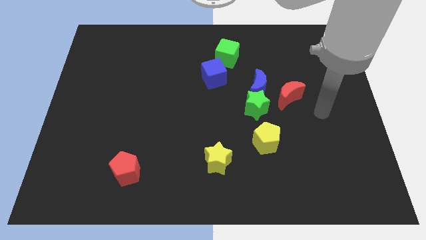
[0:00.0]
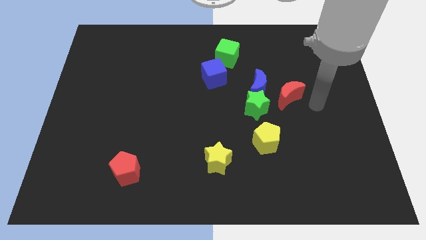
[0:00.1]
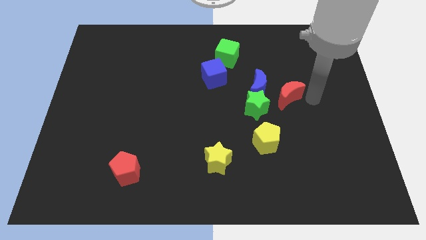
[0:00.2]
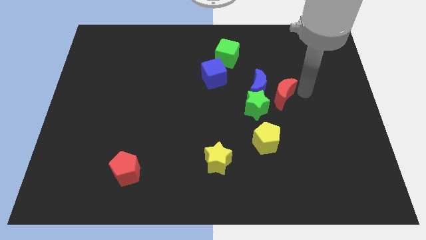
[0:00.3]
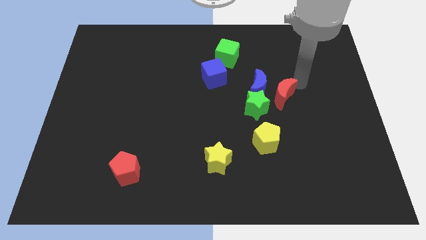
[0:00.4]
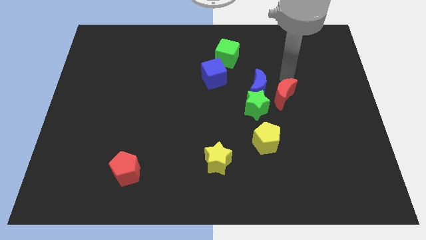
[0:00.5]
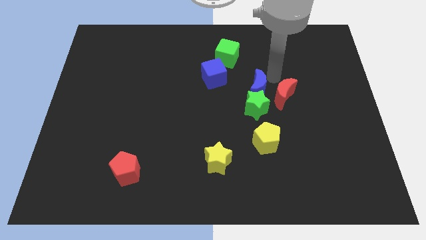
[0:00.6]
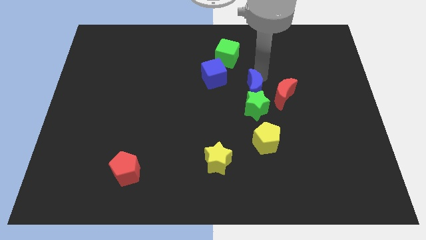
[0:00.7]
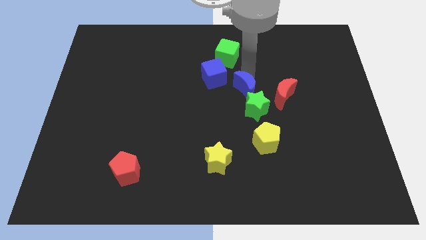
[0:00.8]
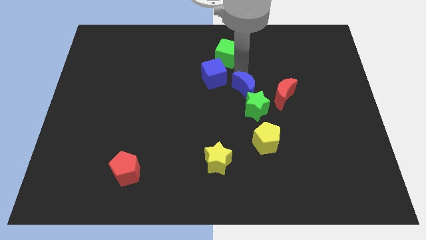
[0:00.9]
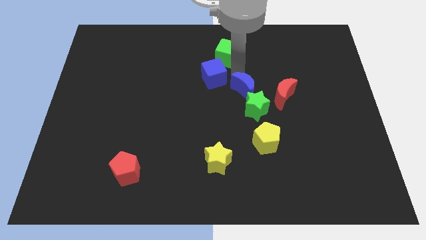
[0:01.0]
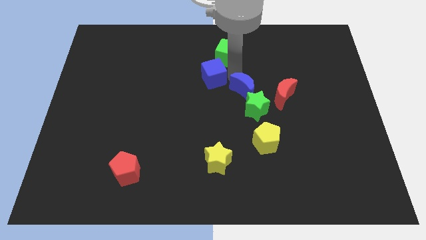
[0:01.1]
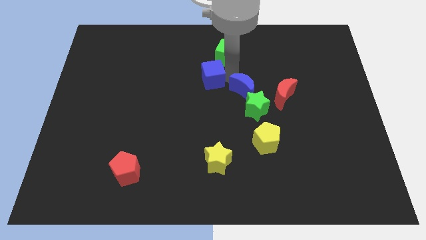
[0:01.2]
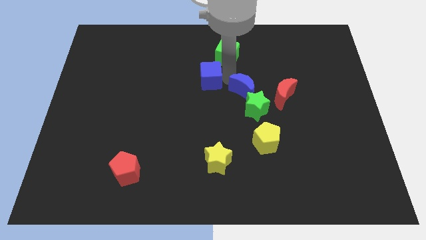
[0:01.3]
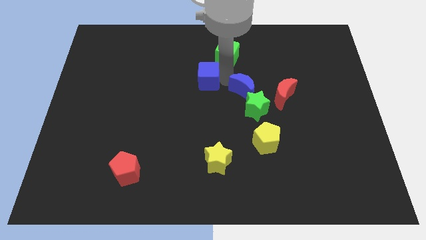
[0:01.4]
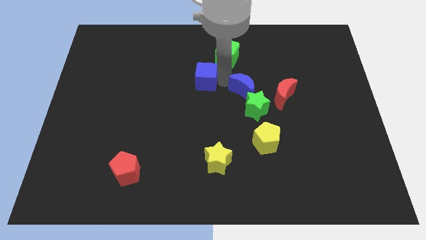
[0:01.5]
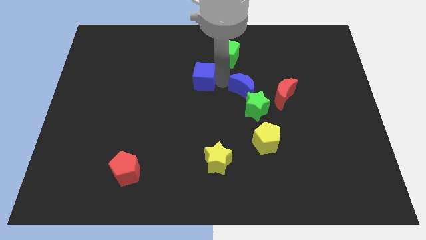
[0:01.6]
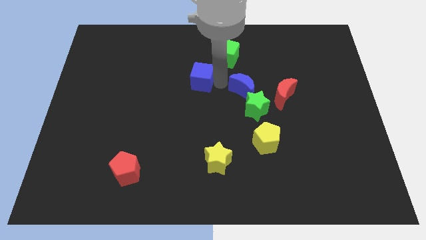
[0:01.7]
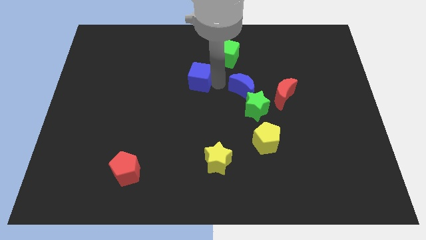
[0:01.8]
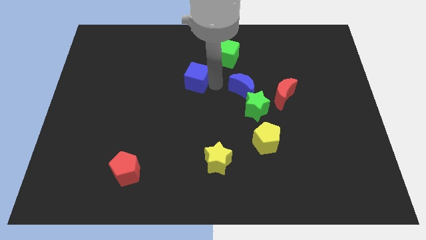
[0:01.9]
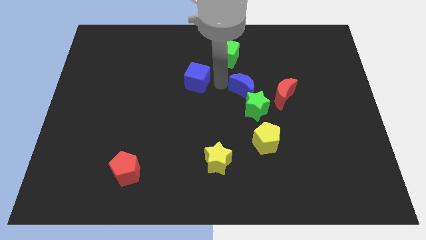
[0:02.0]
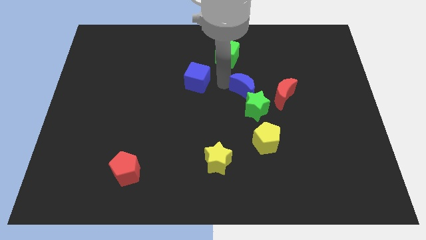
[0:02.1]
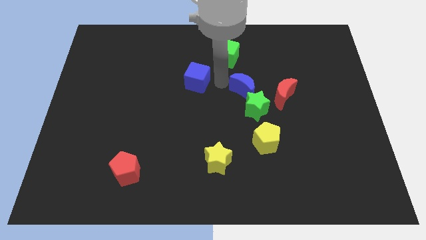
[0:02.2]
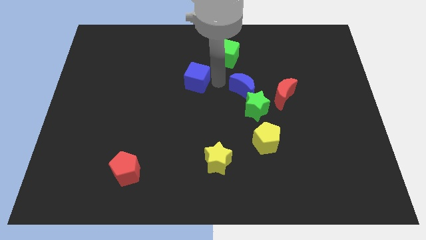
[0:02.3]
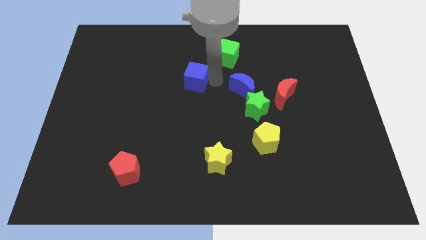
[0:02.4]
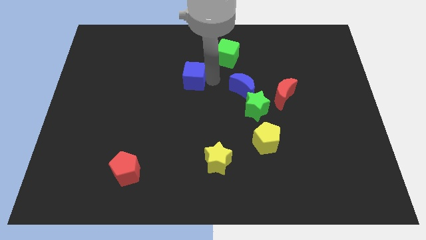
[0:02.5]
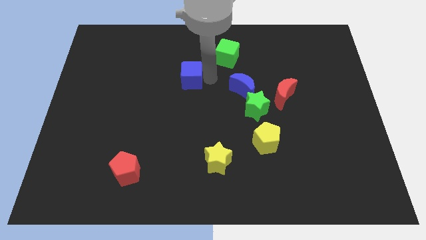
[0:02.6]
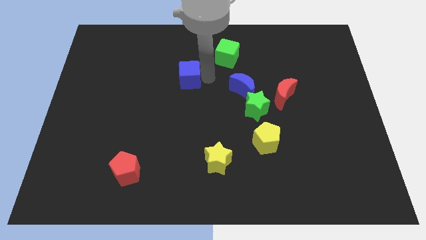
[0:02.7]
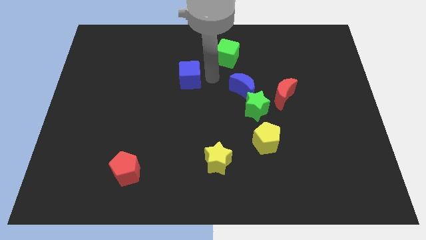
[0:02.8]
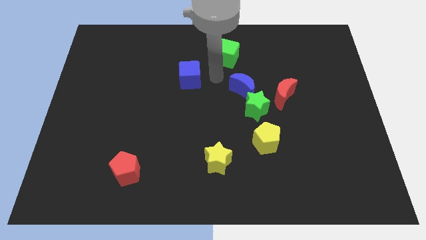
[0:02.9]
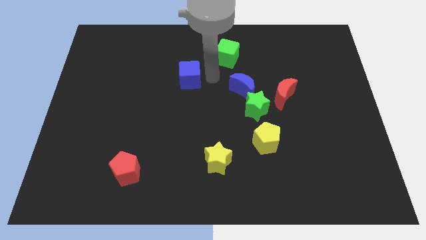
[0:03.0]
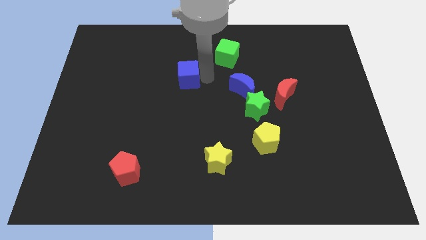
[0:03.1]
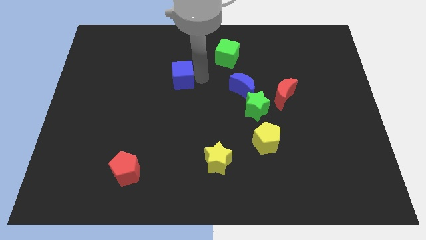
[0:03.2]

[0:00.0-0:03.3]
slightly push the blue cube to the left

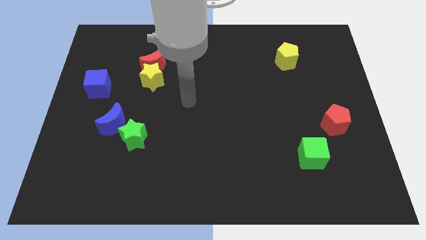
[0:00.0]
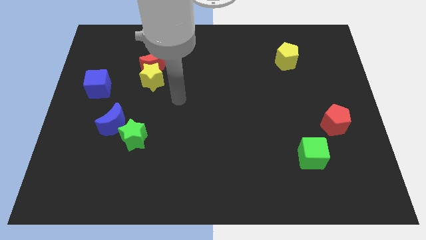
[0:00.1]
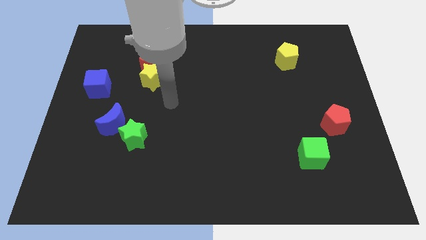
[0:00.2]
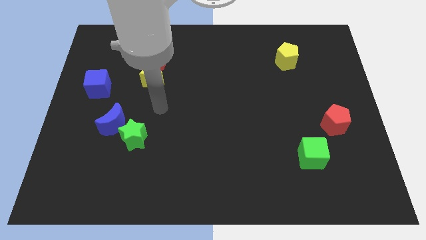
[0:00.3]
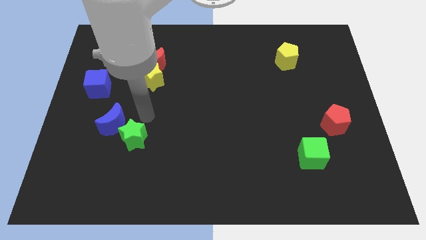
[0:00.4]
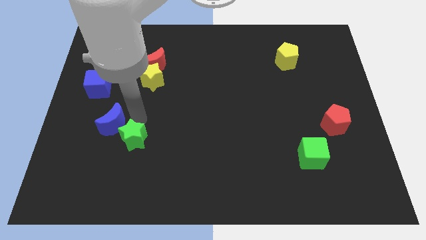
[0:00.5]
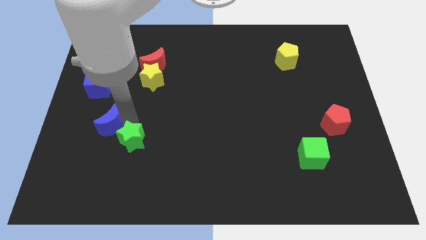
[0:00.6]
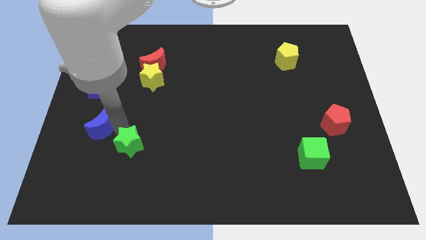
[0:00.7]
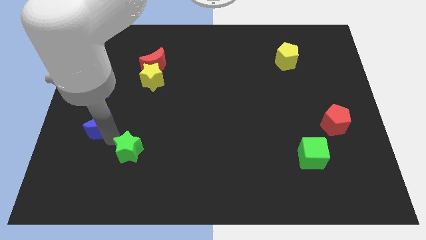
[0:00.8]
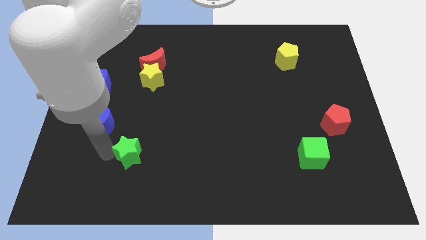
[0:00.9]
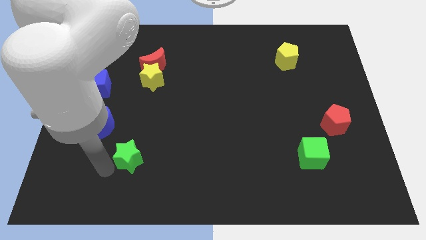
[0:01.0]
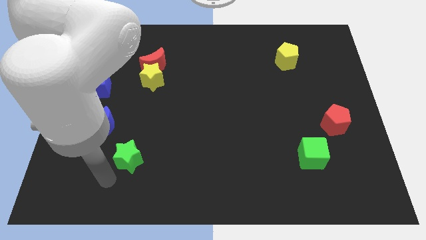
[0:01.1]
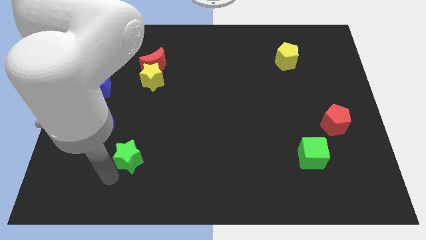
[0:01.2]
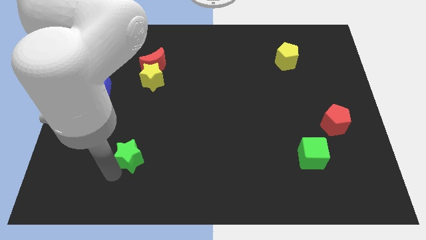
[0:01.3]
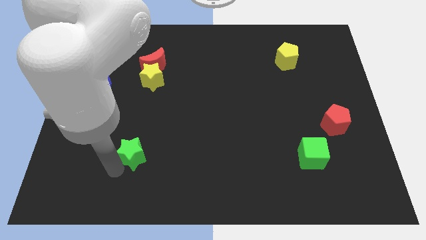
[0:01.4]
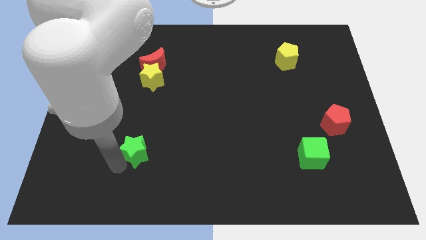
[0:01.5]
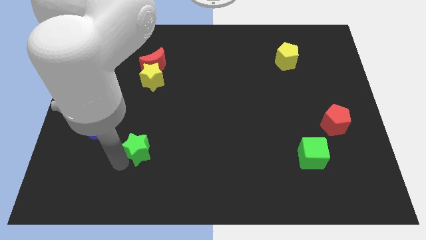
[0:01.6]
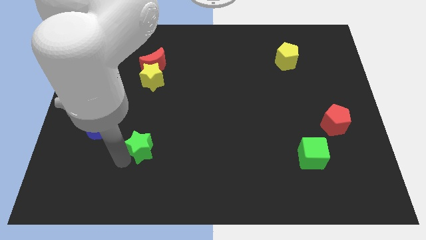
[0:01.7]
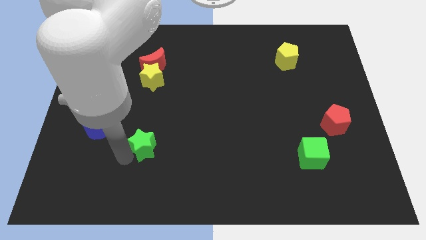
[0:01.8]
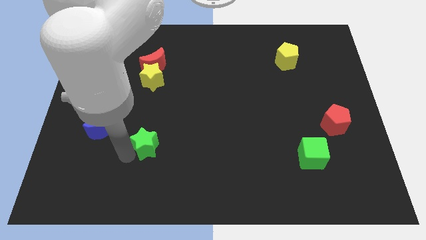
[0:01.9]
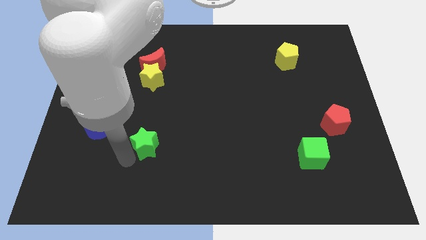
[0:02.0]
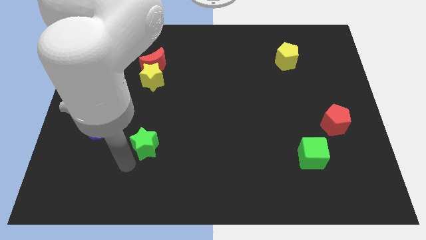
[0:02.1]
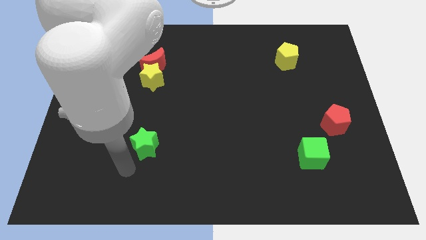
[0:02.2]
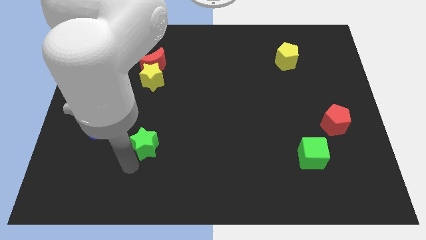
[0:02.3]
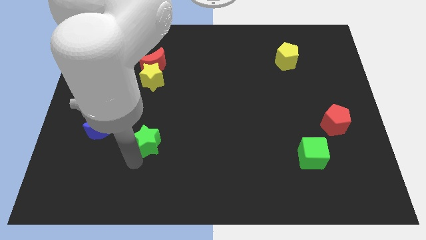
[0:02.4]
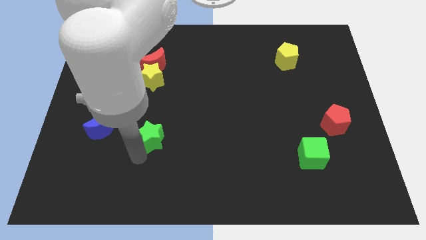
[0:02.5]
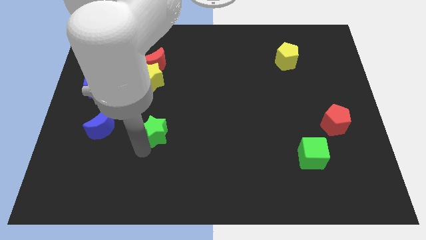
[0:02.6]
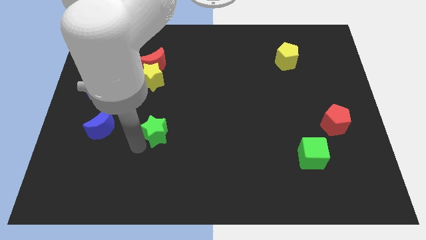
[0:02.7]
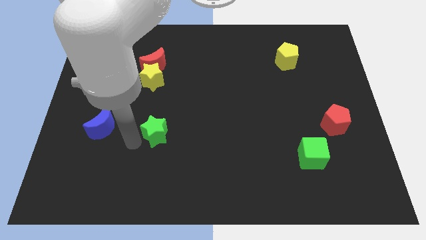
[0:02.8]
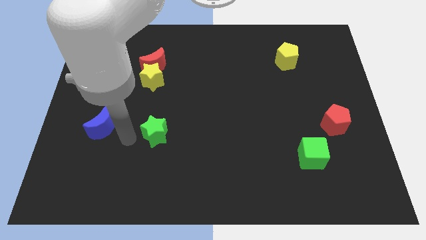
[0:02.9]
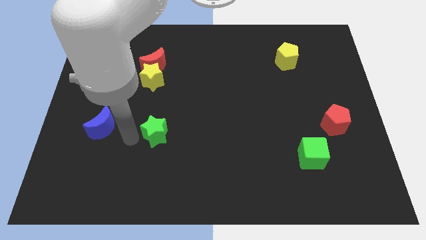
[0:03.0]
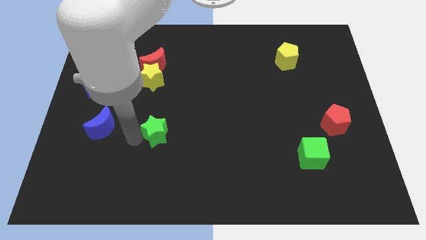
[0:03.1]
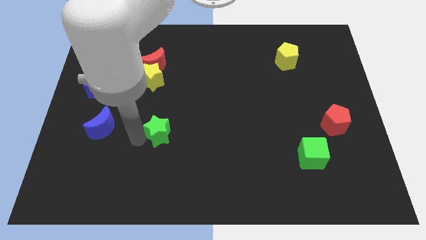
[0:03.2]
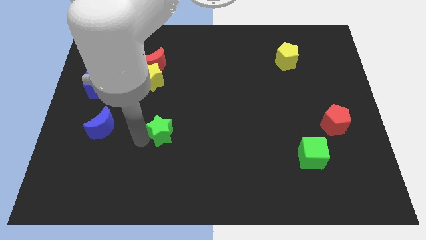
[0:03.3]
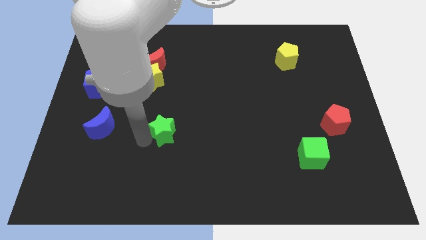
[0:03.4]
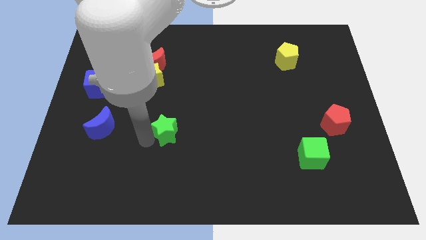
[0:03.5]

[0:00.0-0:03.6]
push the green star a little bit right

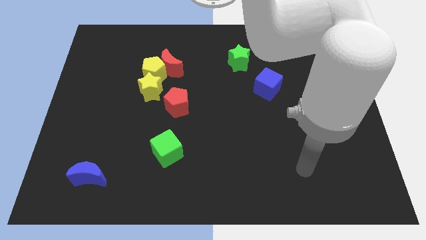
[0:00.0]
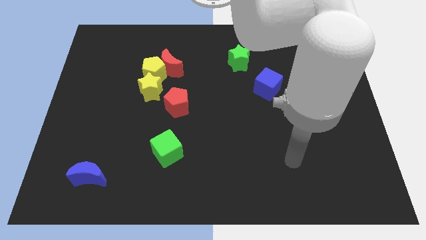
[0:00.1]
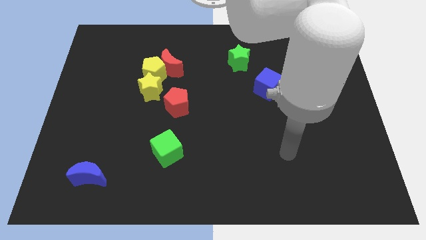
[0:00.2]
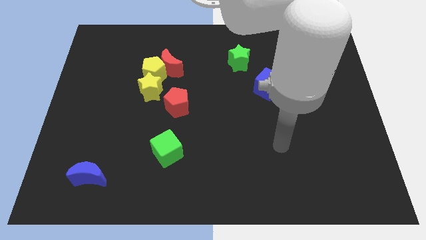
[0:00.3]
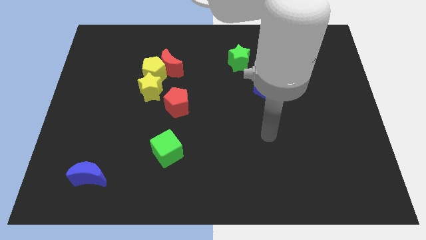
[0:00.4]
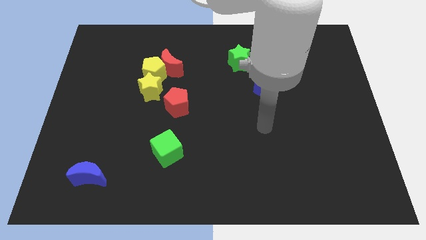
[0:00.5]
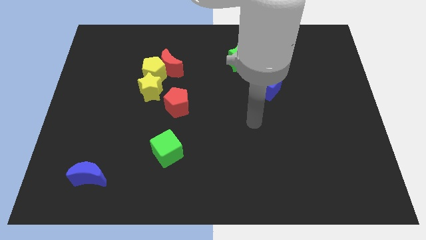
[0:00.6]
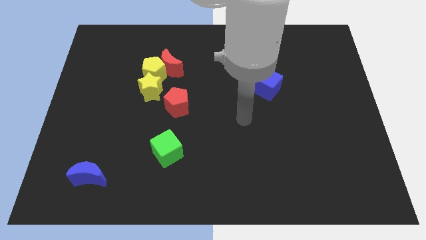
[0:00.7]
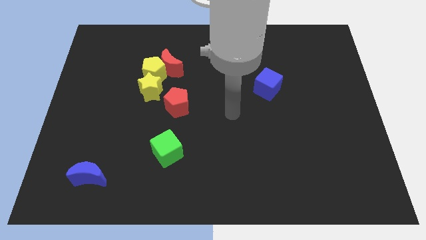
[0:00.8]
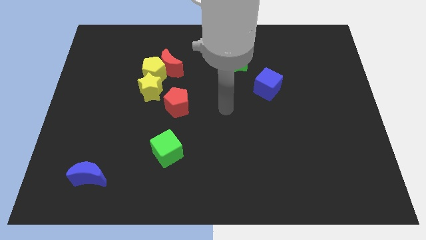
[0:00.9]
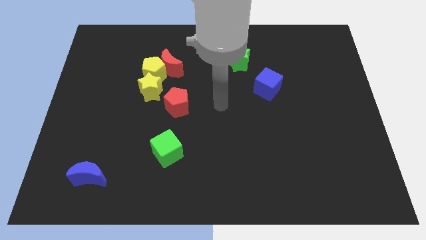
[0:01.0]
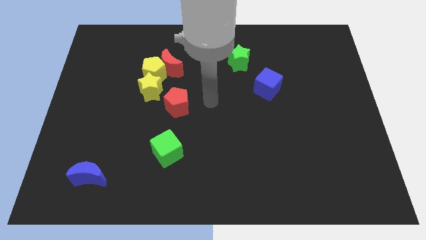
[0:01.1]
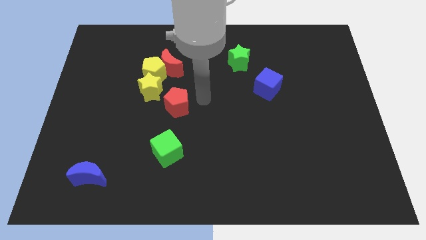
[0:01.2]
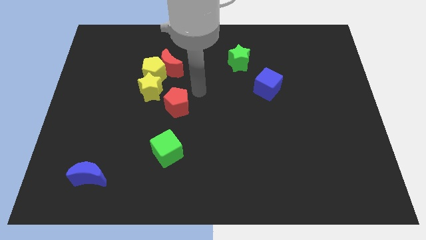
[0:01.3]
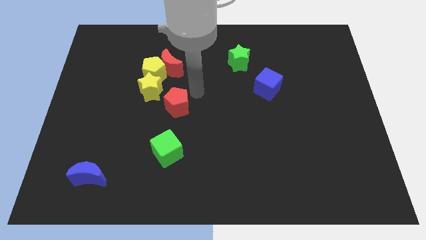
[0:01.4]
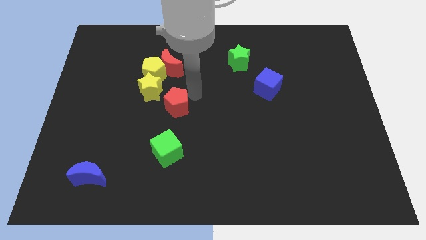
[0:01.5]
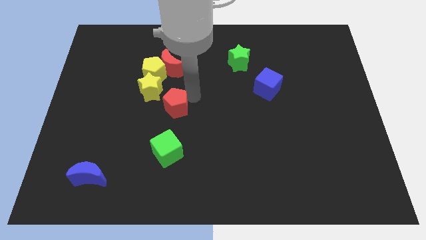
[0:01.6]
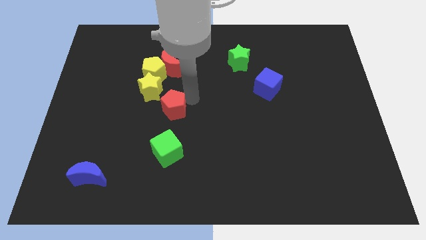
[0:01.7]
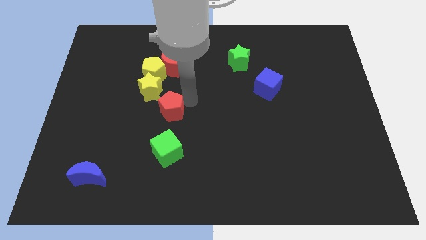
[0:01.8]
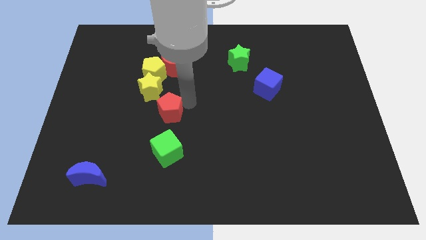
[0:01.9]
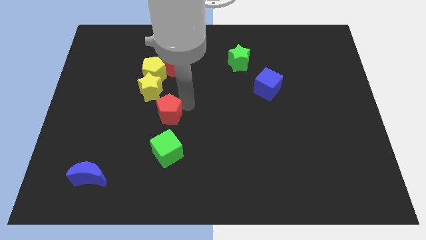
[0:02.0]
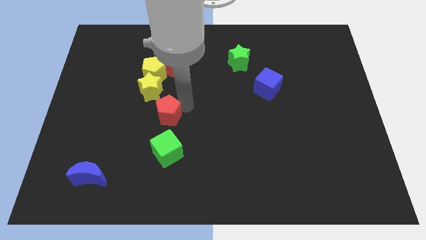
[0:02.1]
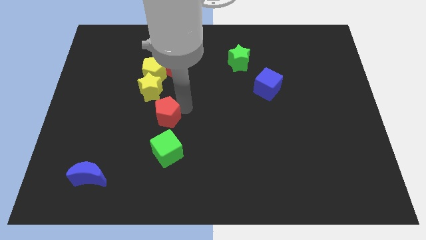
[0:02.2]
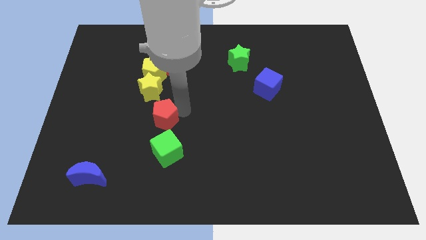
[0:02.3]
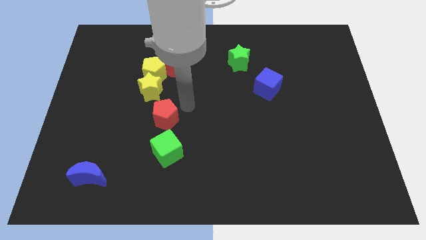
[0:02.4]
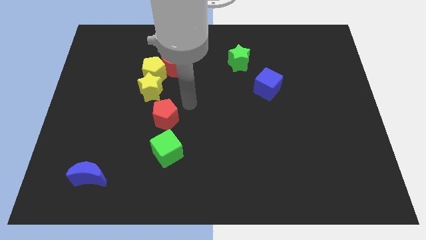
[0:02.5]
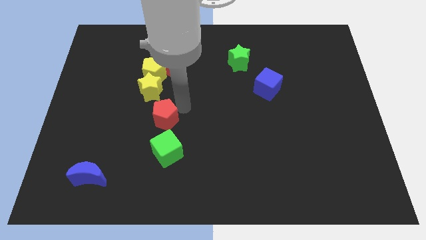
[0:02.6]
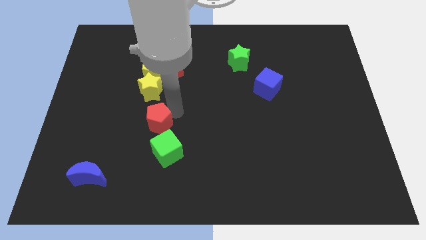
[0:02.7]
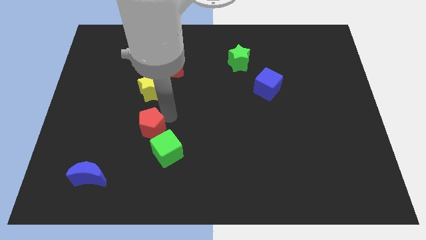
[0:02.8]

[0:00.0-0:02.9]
push the red pentagon a little bit diagonally down and to the left
